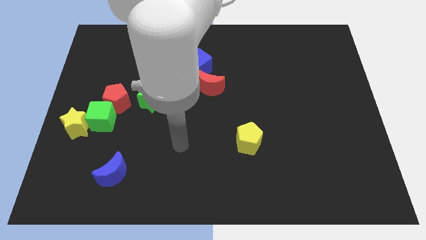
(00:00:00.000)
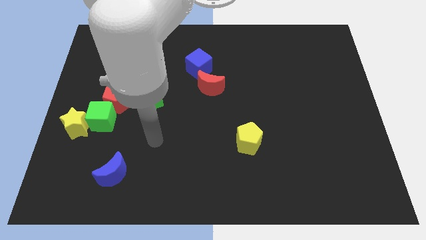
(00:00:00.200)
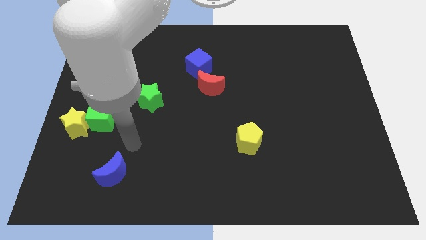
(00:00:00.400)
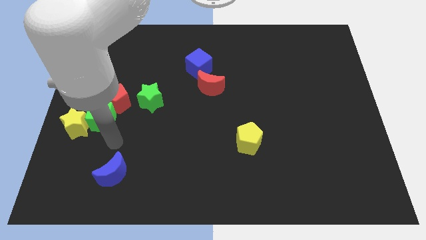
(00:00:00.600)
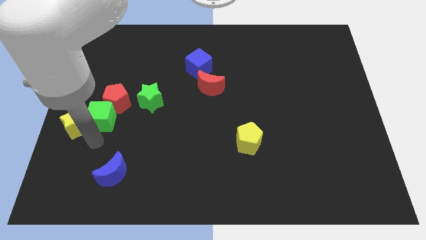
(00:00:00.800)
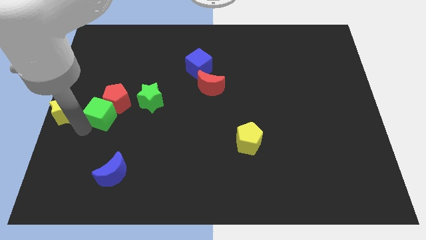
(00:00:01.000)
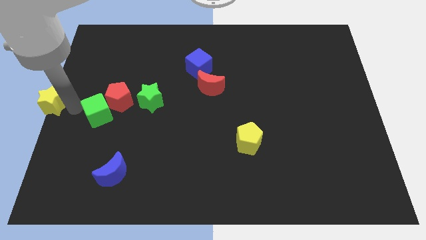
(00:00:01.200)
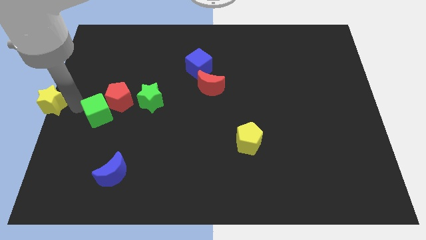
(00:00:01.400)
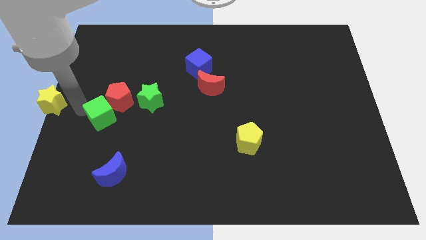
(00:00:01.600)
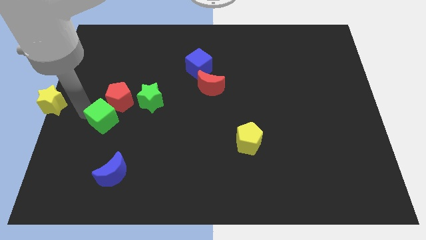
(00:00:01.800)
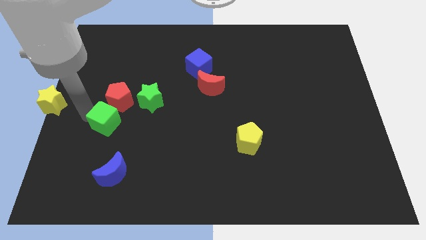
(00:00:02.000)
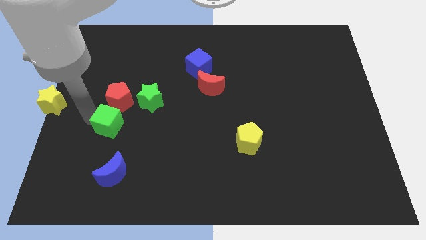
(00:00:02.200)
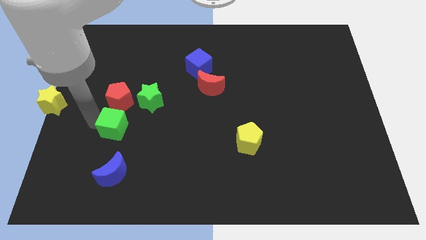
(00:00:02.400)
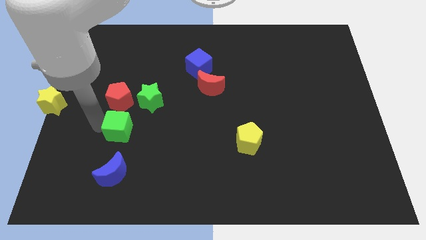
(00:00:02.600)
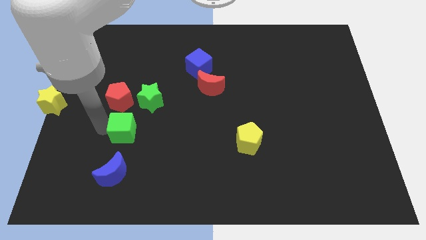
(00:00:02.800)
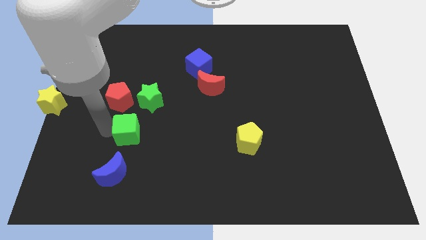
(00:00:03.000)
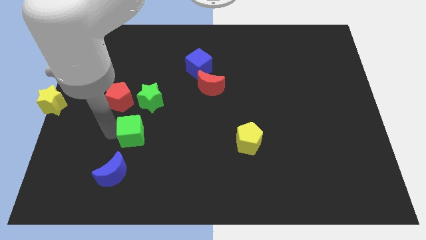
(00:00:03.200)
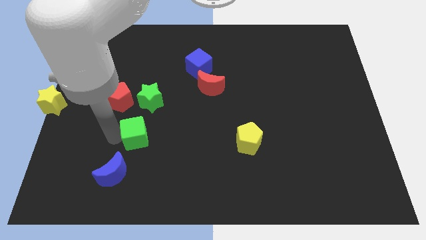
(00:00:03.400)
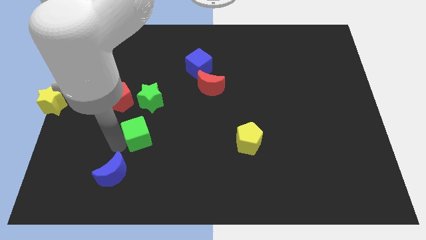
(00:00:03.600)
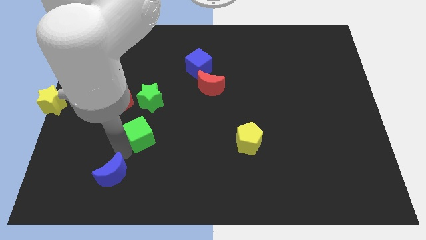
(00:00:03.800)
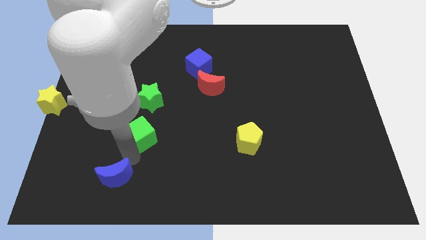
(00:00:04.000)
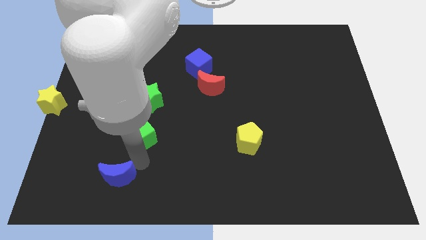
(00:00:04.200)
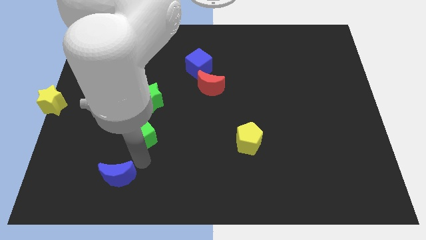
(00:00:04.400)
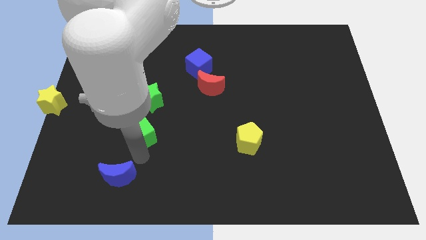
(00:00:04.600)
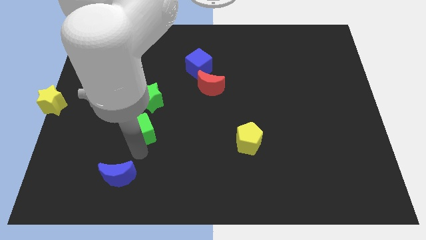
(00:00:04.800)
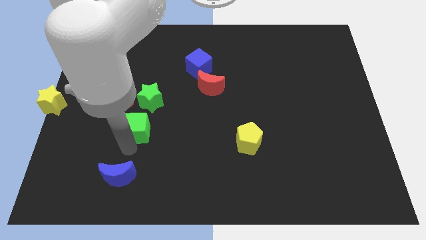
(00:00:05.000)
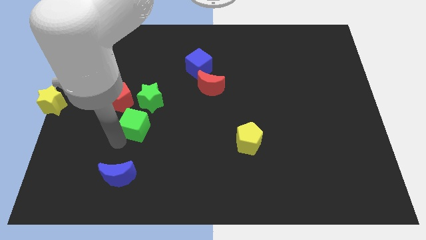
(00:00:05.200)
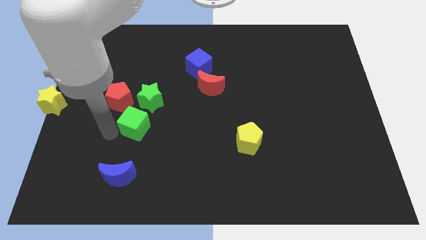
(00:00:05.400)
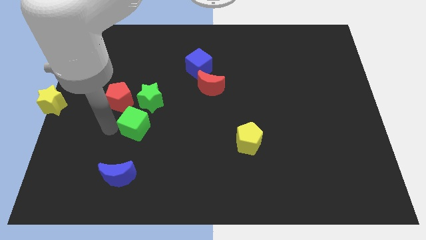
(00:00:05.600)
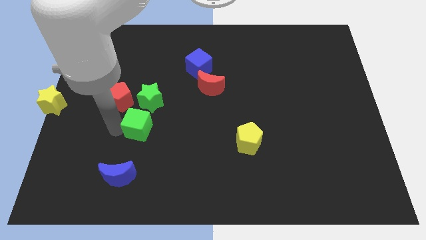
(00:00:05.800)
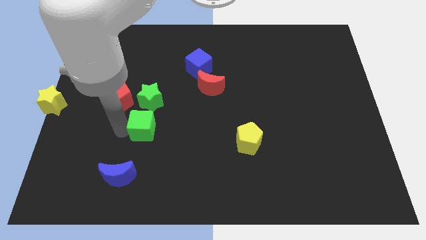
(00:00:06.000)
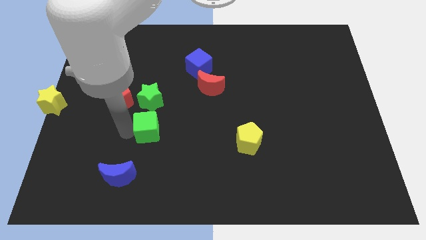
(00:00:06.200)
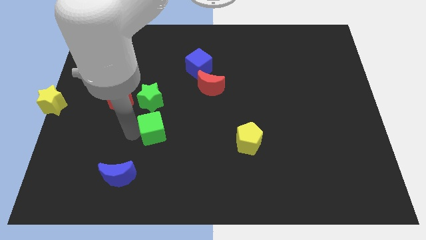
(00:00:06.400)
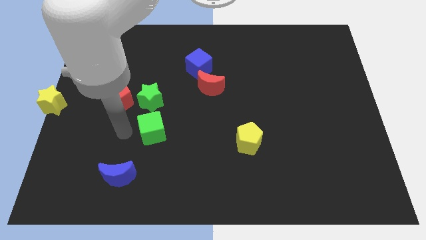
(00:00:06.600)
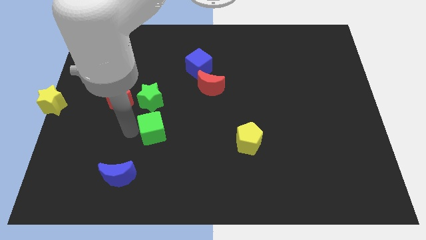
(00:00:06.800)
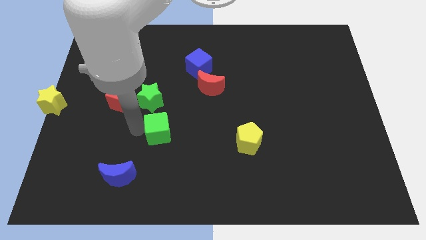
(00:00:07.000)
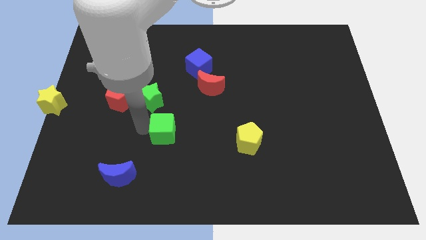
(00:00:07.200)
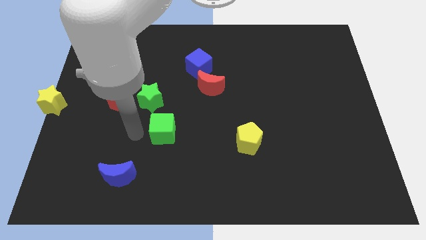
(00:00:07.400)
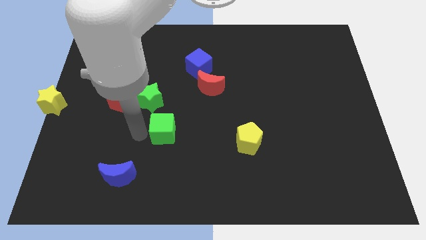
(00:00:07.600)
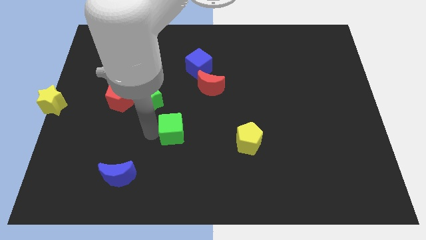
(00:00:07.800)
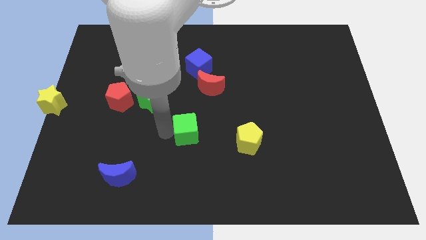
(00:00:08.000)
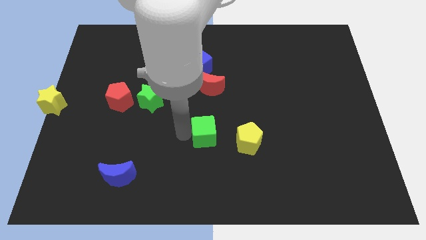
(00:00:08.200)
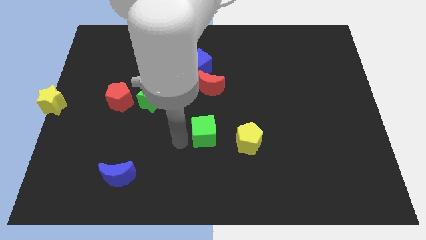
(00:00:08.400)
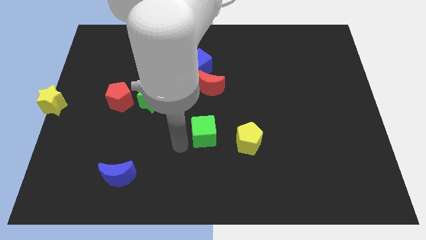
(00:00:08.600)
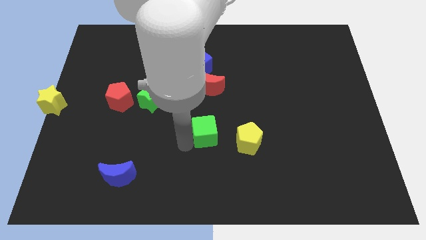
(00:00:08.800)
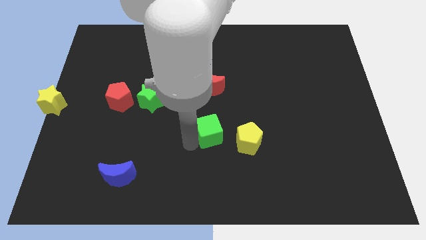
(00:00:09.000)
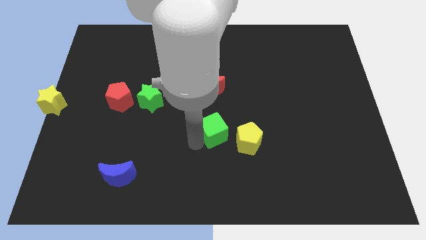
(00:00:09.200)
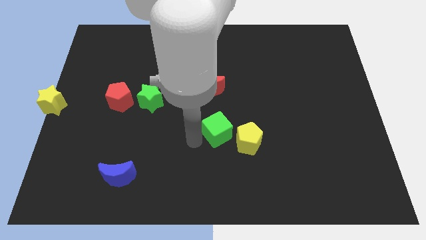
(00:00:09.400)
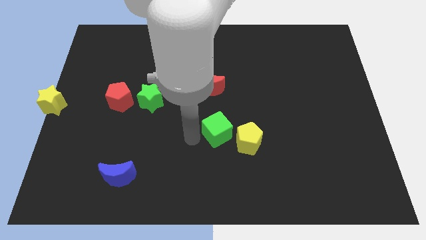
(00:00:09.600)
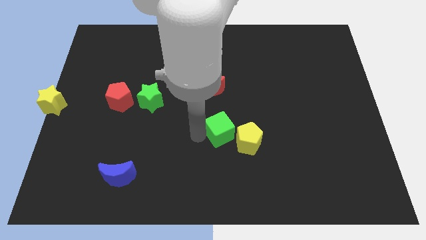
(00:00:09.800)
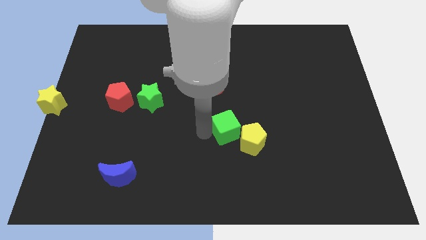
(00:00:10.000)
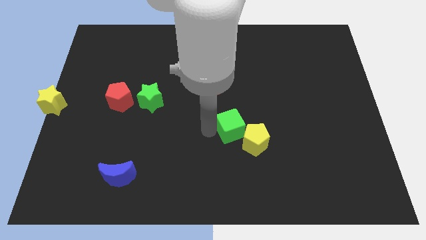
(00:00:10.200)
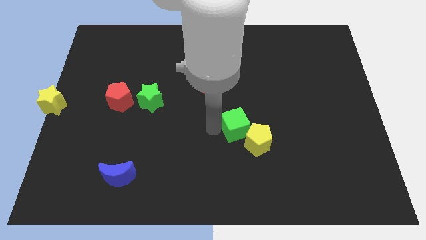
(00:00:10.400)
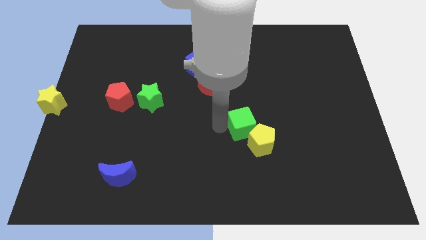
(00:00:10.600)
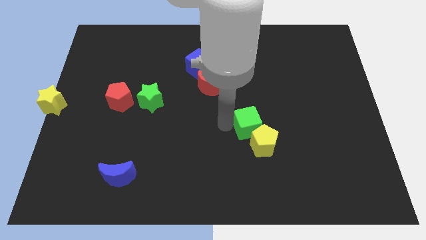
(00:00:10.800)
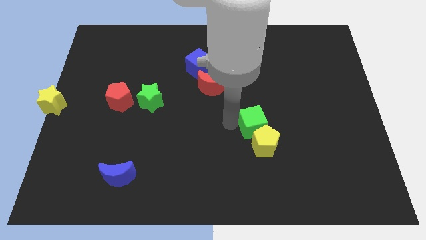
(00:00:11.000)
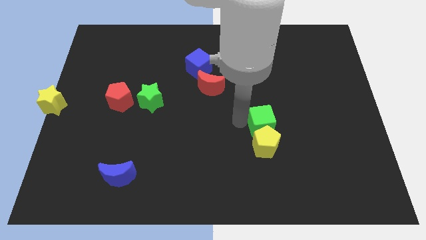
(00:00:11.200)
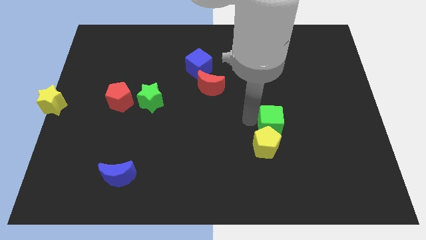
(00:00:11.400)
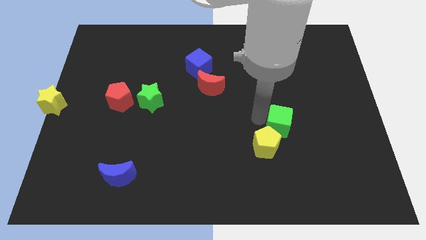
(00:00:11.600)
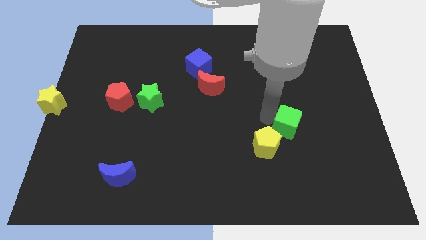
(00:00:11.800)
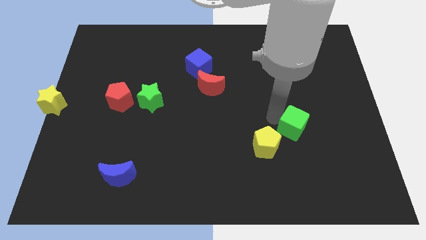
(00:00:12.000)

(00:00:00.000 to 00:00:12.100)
put the green cube to the right side of the yellow pentagon

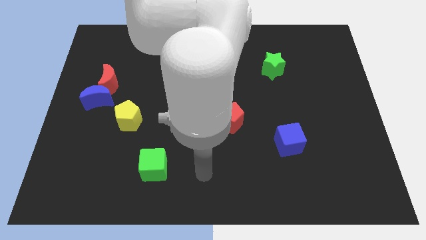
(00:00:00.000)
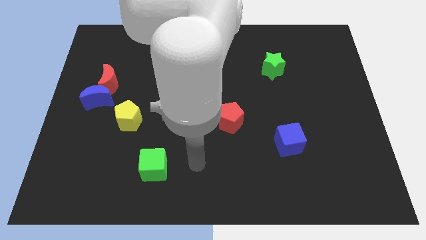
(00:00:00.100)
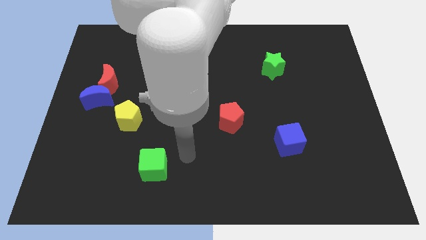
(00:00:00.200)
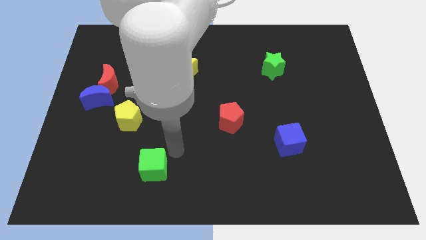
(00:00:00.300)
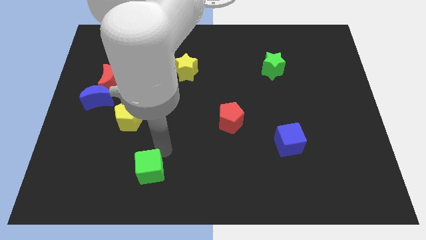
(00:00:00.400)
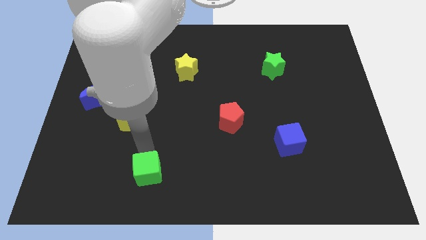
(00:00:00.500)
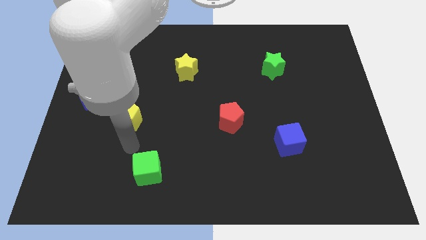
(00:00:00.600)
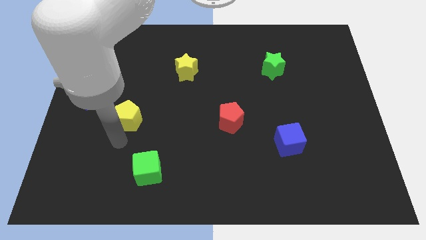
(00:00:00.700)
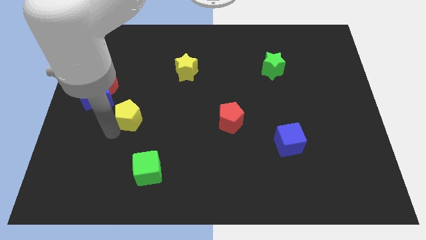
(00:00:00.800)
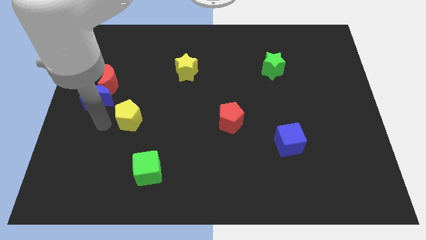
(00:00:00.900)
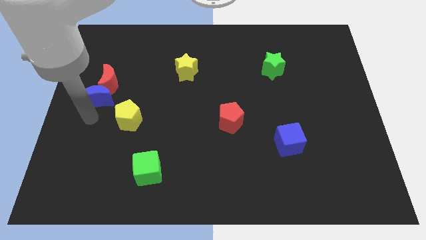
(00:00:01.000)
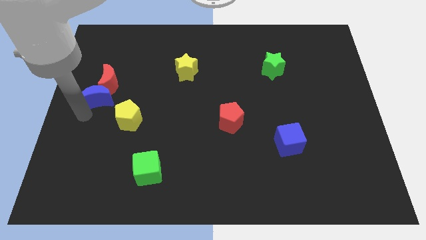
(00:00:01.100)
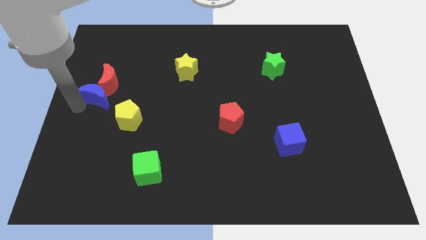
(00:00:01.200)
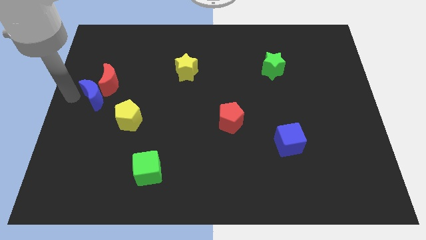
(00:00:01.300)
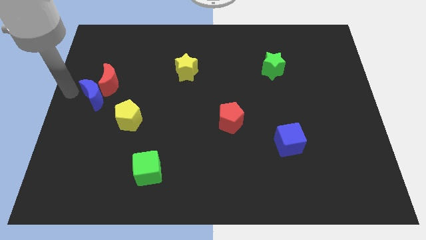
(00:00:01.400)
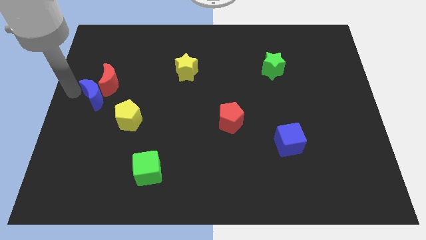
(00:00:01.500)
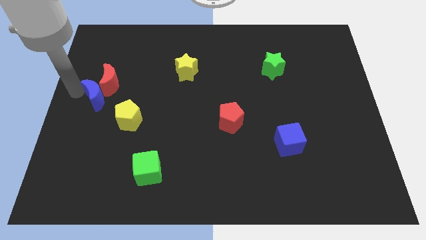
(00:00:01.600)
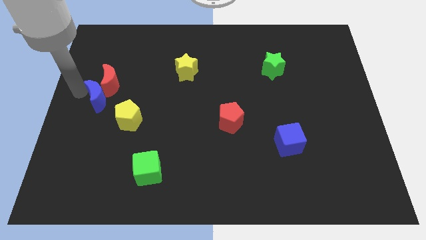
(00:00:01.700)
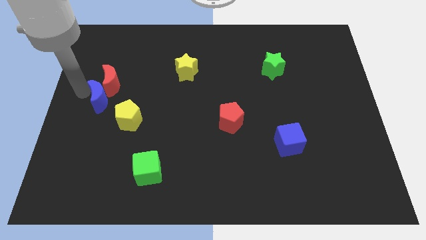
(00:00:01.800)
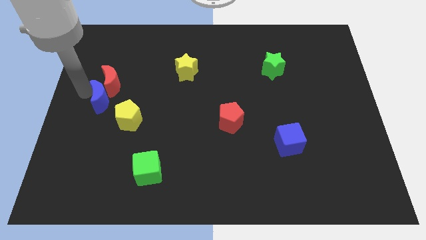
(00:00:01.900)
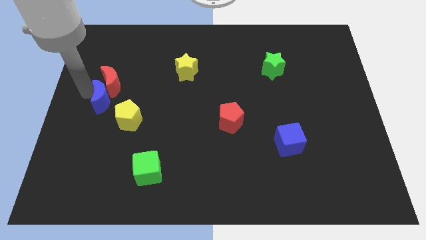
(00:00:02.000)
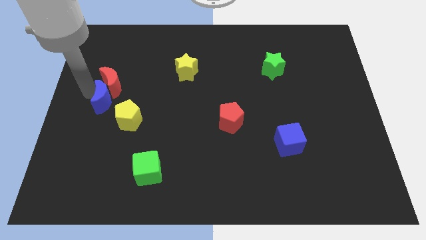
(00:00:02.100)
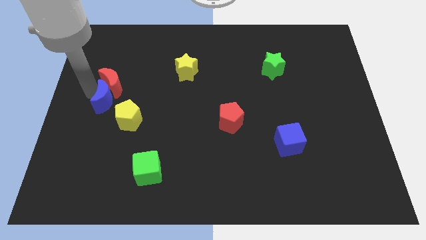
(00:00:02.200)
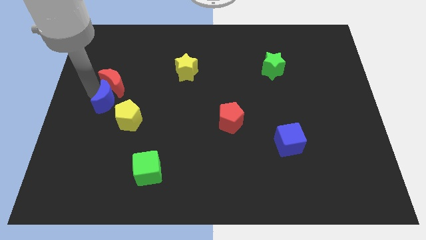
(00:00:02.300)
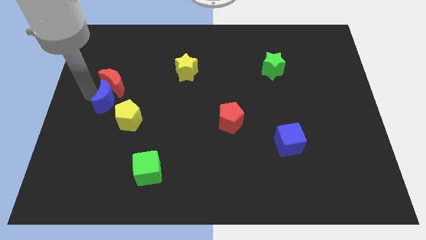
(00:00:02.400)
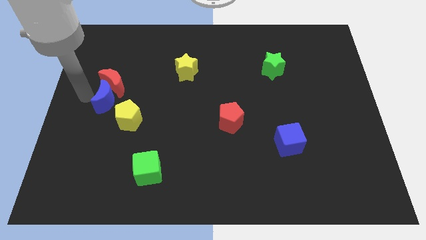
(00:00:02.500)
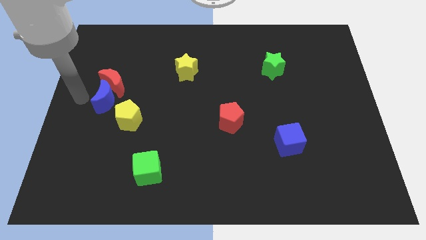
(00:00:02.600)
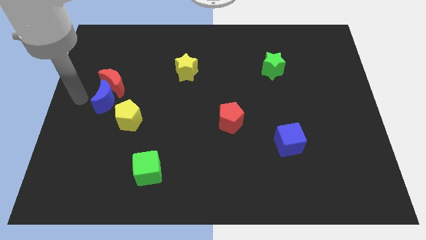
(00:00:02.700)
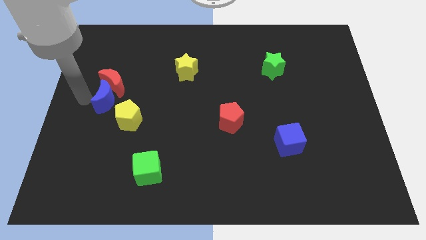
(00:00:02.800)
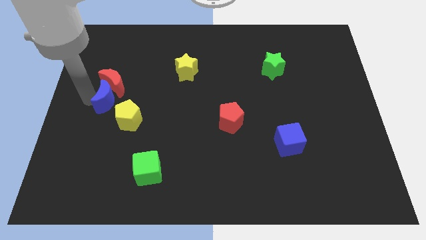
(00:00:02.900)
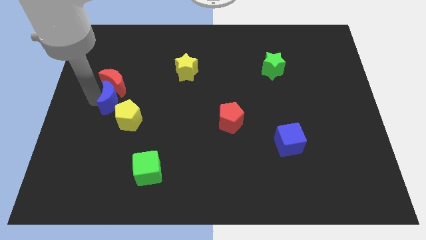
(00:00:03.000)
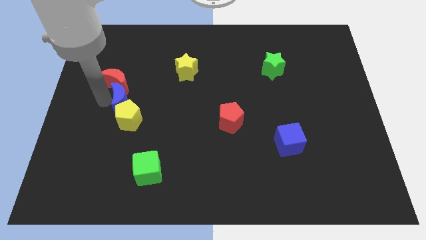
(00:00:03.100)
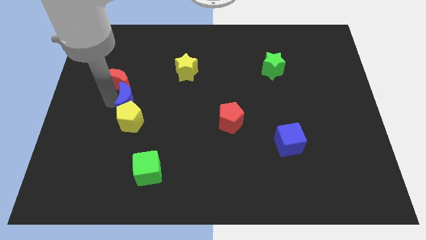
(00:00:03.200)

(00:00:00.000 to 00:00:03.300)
slide the blue moon to the top right of the yellow pentagon
